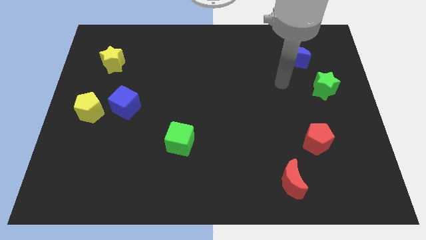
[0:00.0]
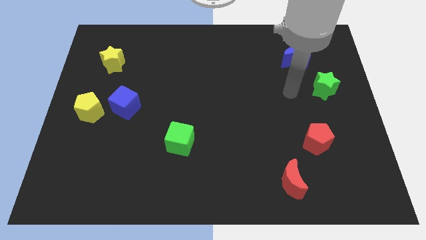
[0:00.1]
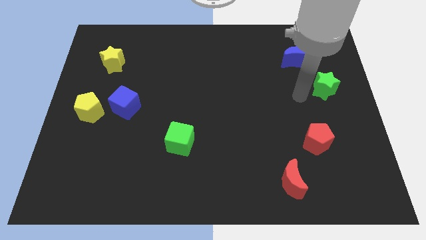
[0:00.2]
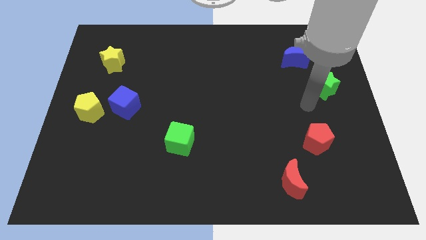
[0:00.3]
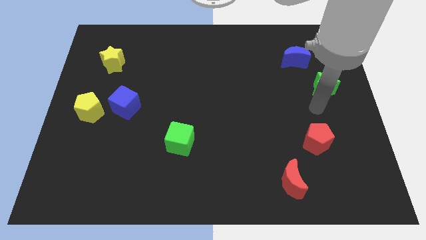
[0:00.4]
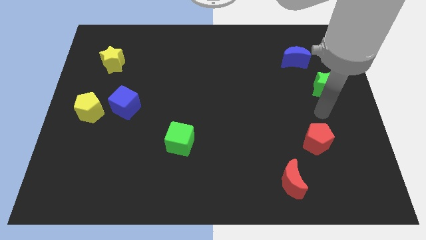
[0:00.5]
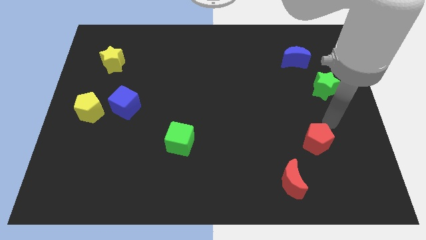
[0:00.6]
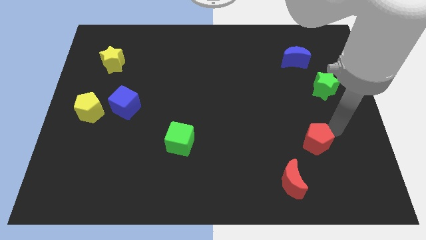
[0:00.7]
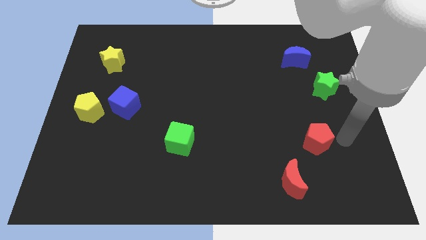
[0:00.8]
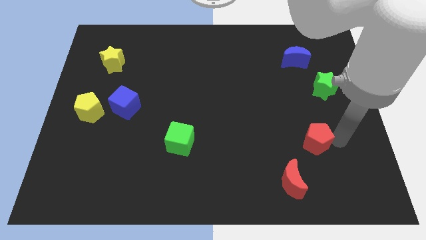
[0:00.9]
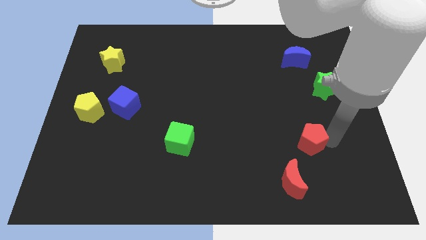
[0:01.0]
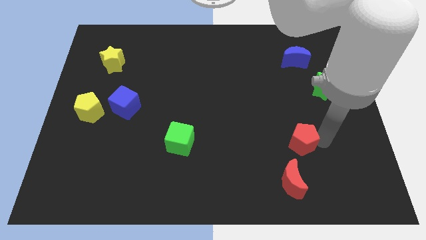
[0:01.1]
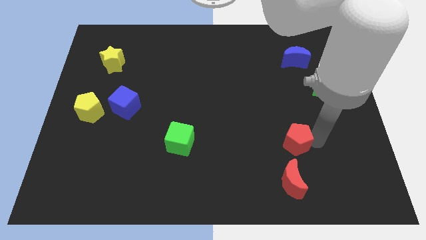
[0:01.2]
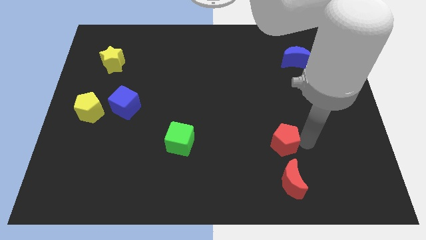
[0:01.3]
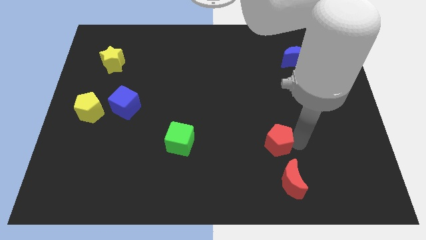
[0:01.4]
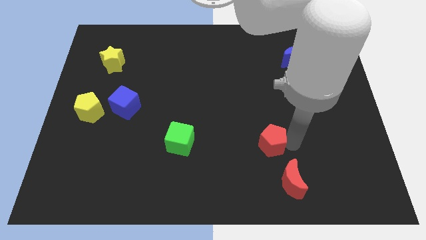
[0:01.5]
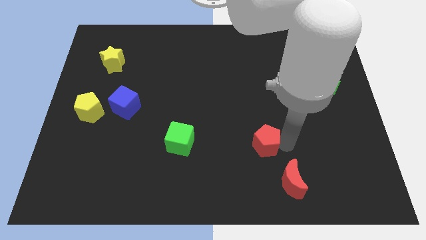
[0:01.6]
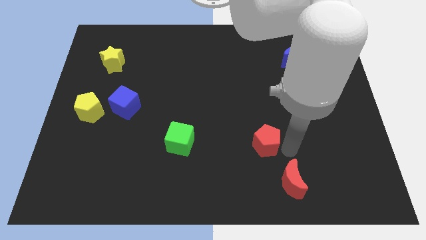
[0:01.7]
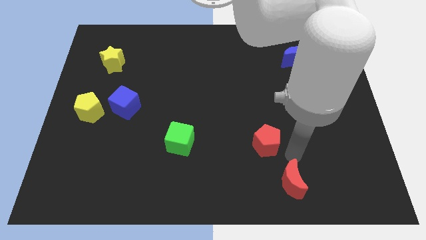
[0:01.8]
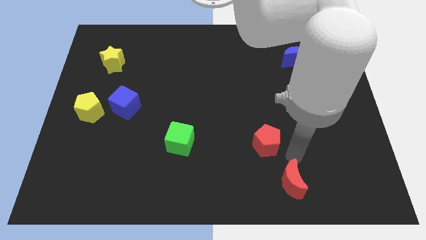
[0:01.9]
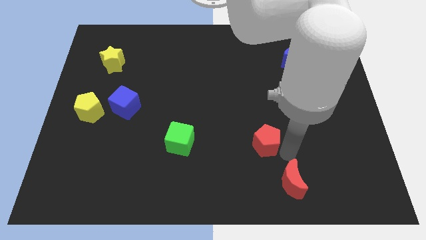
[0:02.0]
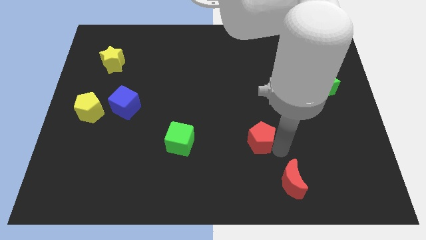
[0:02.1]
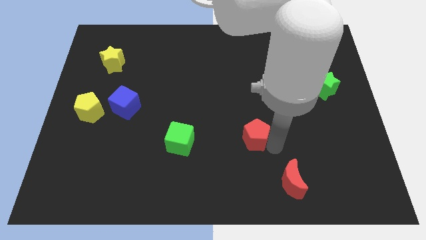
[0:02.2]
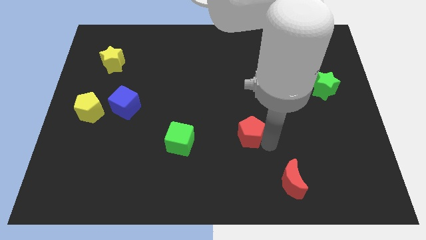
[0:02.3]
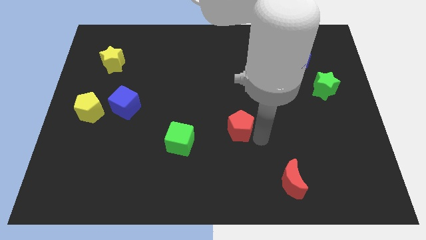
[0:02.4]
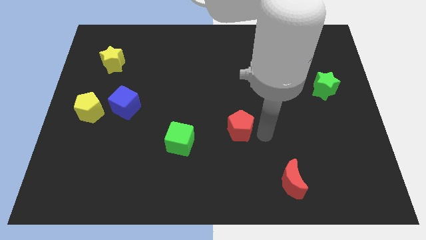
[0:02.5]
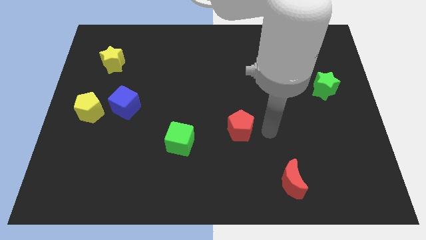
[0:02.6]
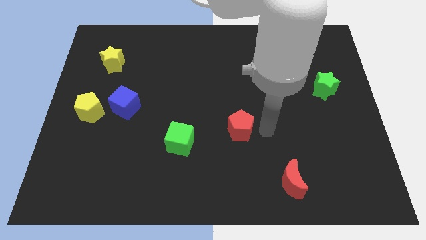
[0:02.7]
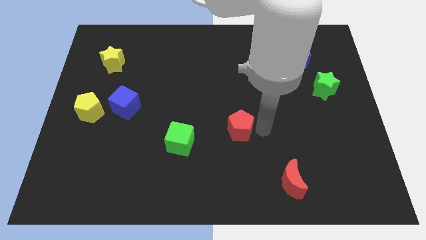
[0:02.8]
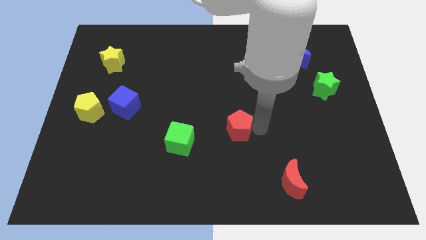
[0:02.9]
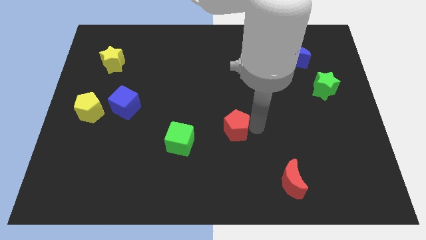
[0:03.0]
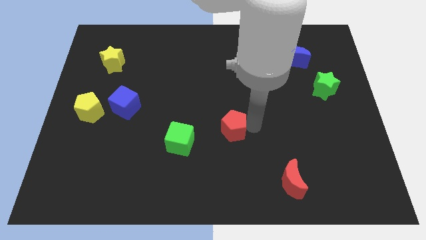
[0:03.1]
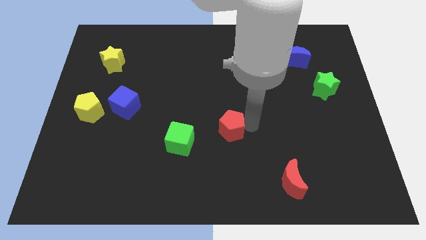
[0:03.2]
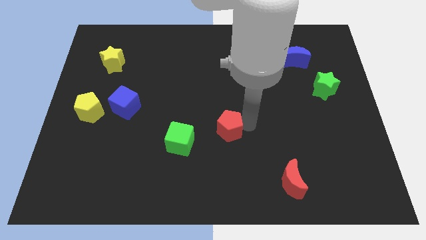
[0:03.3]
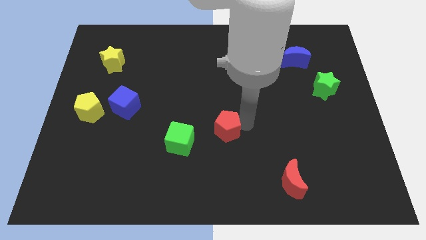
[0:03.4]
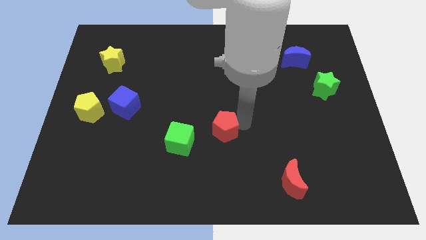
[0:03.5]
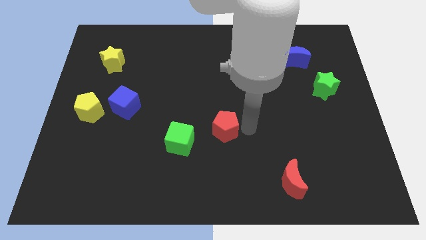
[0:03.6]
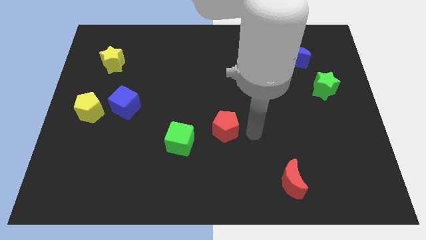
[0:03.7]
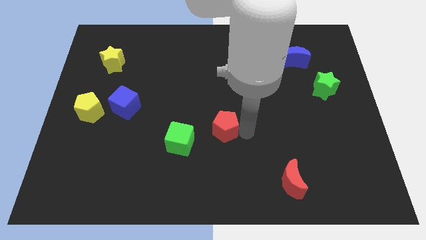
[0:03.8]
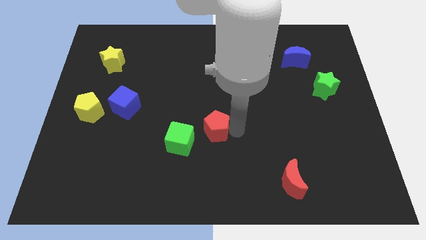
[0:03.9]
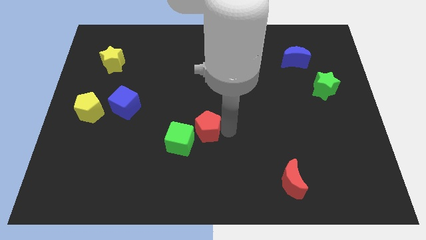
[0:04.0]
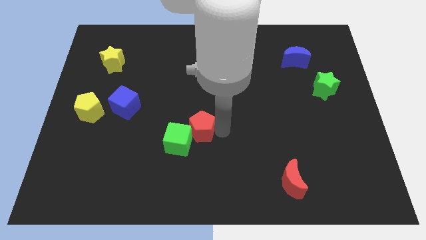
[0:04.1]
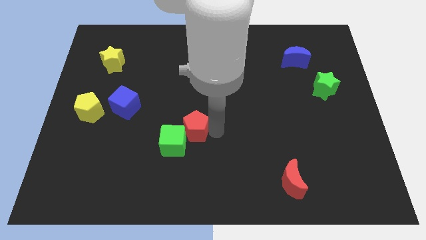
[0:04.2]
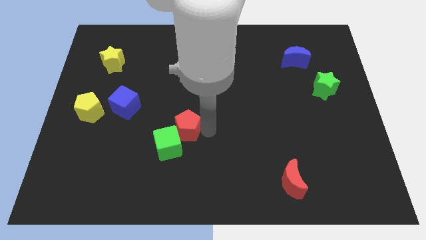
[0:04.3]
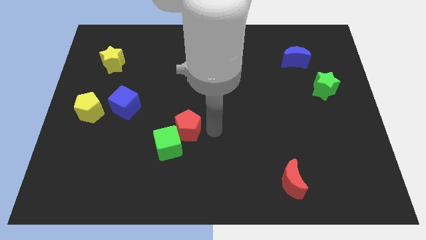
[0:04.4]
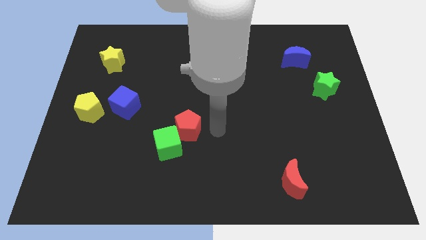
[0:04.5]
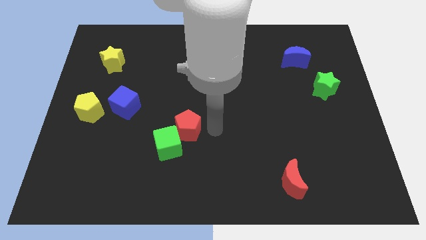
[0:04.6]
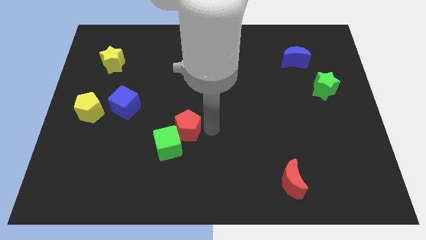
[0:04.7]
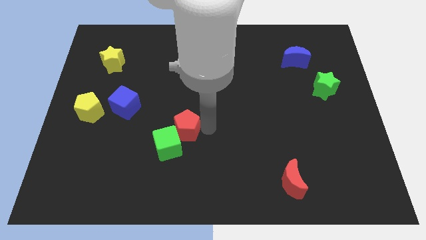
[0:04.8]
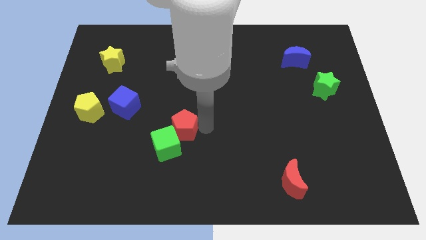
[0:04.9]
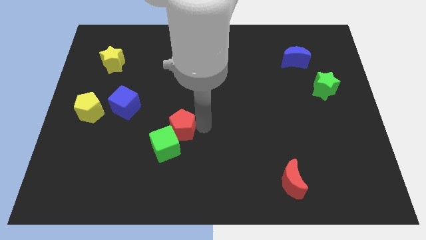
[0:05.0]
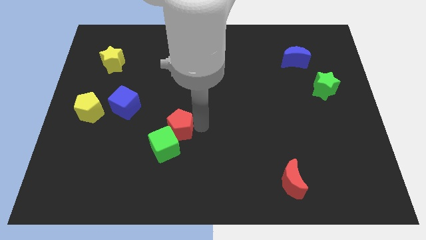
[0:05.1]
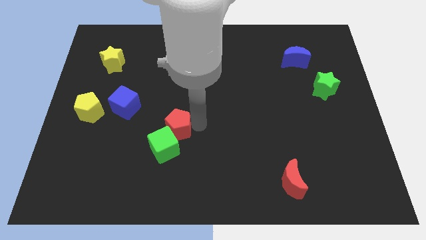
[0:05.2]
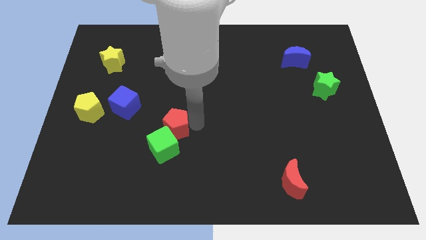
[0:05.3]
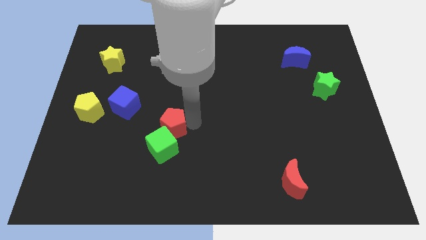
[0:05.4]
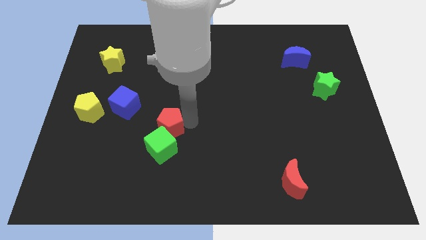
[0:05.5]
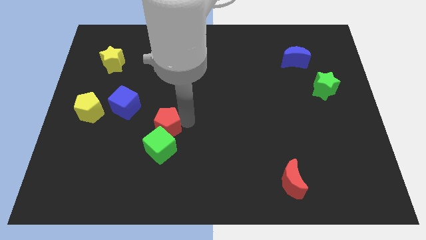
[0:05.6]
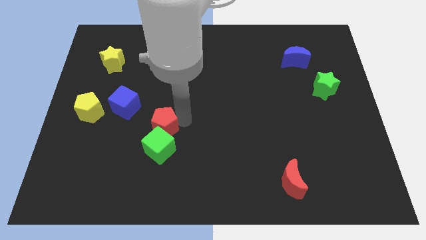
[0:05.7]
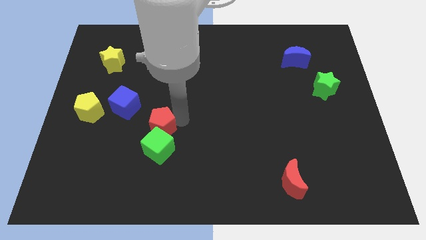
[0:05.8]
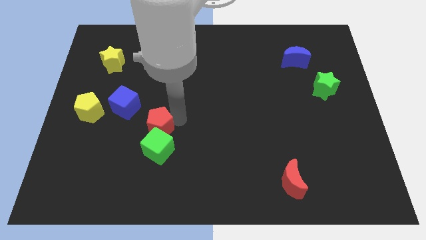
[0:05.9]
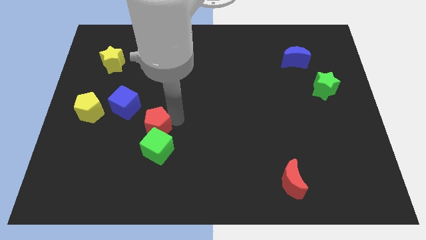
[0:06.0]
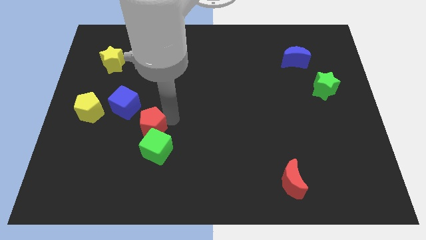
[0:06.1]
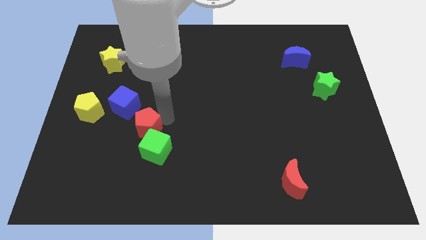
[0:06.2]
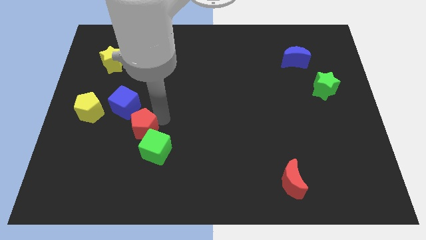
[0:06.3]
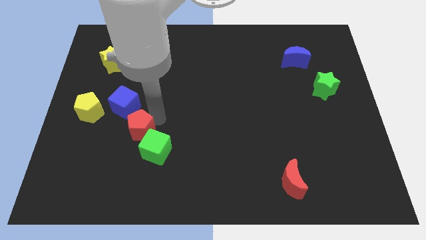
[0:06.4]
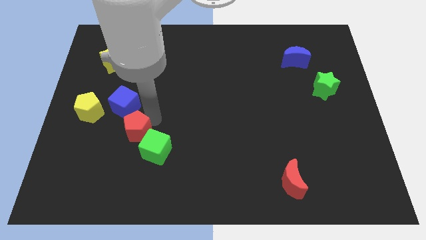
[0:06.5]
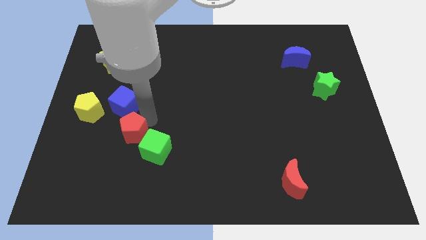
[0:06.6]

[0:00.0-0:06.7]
move the red pentagon to the left side of the green cube
